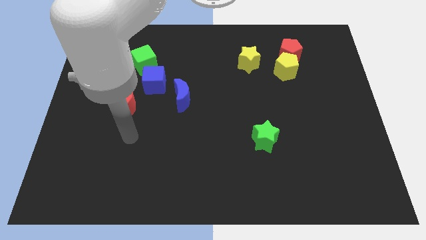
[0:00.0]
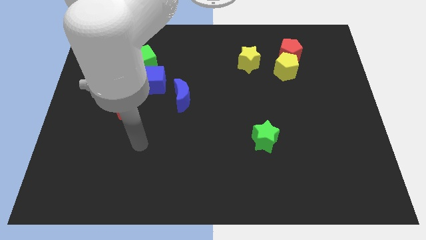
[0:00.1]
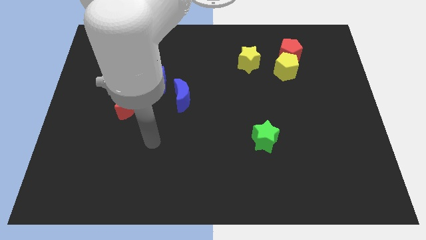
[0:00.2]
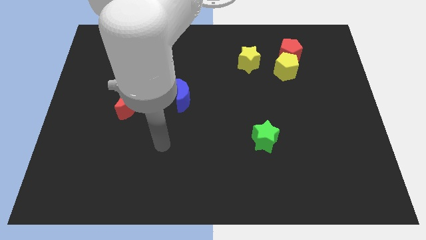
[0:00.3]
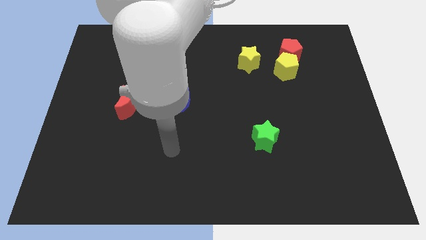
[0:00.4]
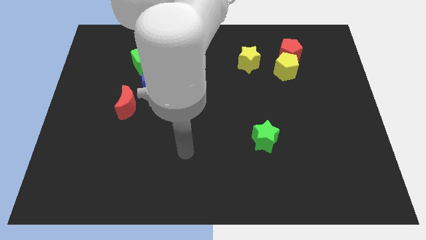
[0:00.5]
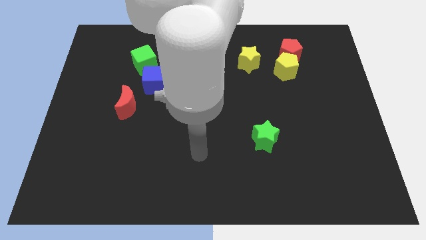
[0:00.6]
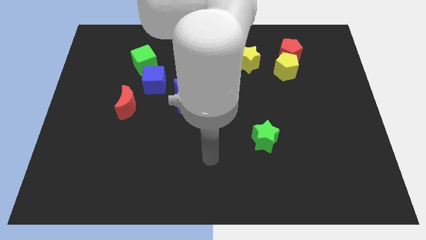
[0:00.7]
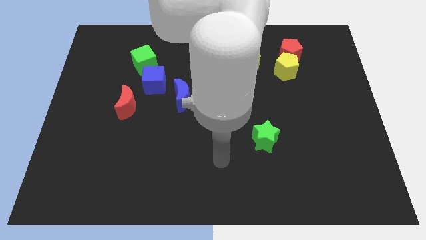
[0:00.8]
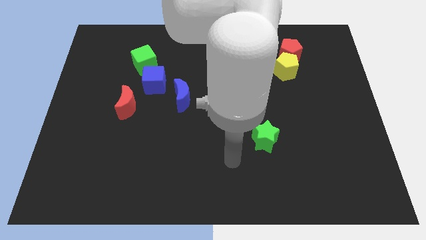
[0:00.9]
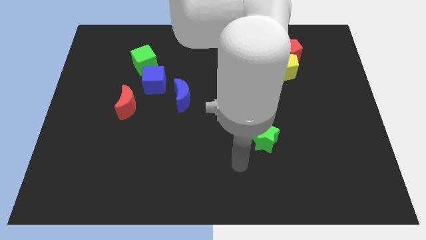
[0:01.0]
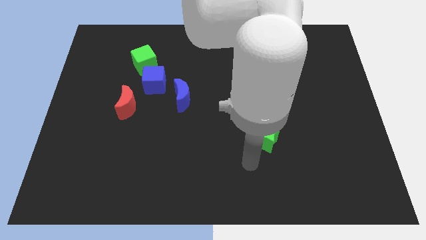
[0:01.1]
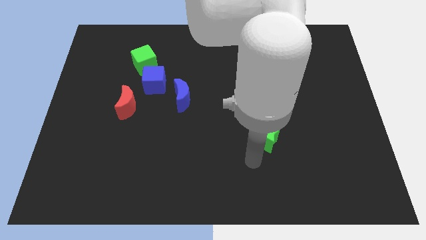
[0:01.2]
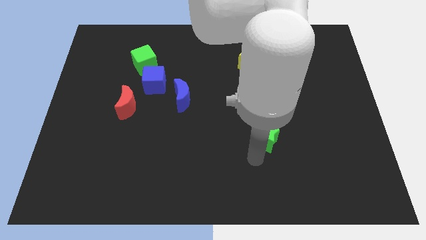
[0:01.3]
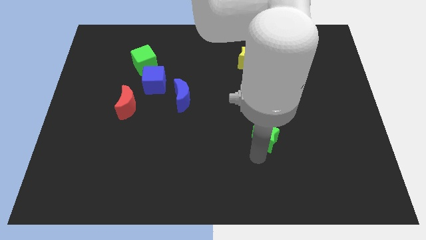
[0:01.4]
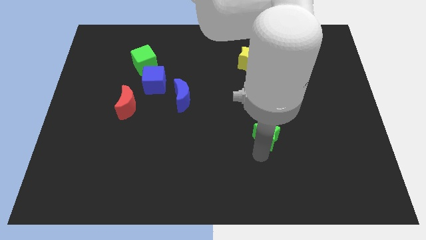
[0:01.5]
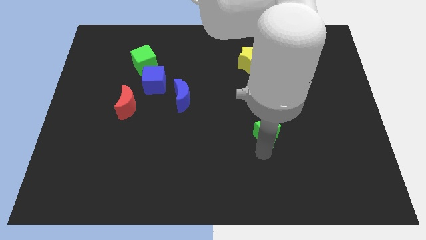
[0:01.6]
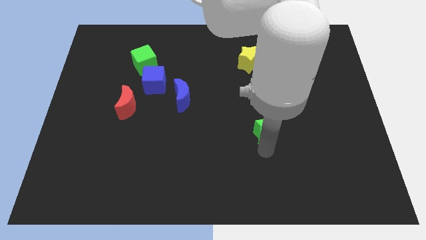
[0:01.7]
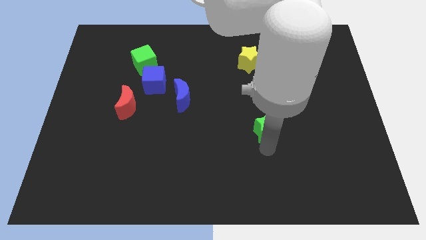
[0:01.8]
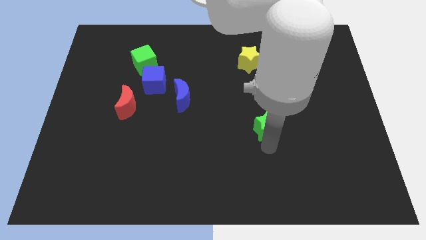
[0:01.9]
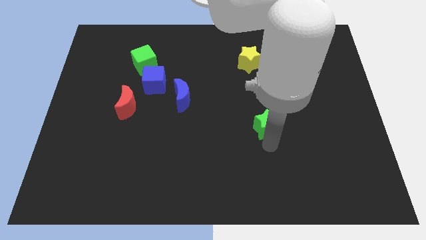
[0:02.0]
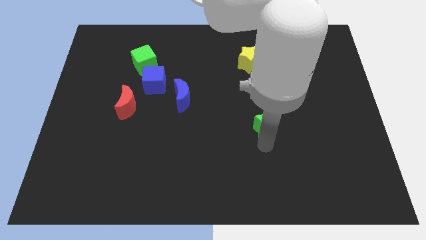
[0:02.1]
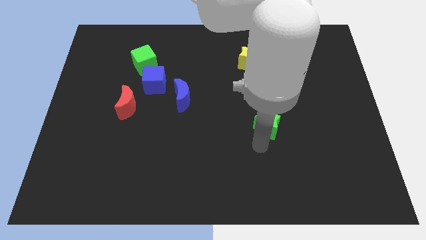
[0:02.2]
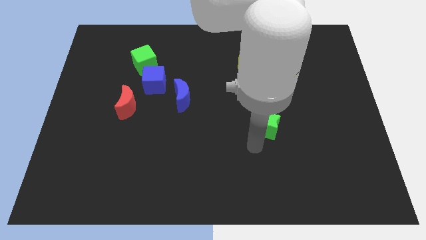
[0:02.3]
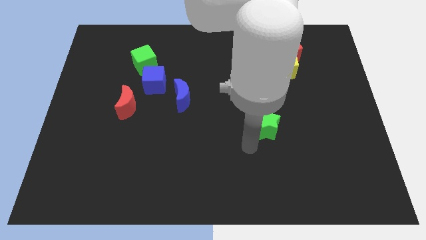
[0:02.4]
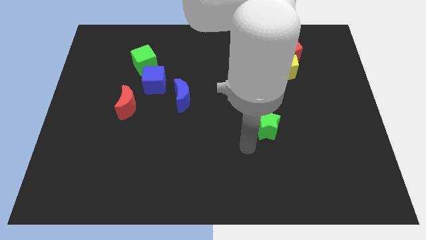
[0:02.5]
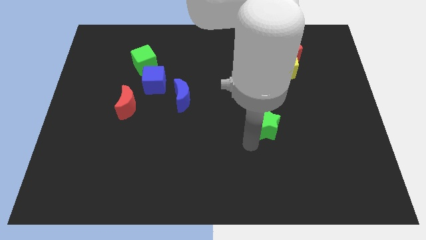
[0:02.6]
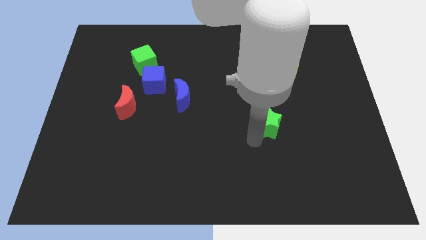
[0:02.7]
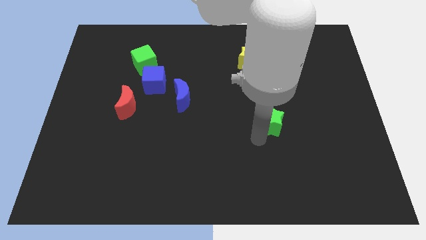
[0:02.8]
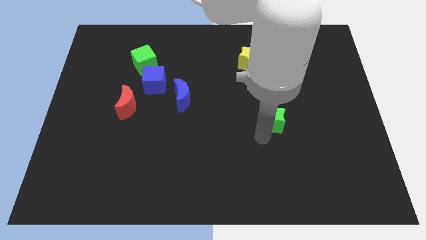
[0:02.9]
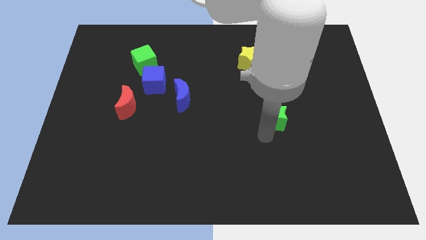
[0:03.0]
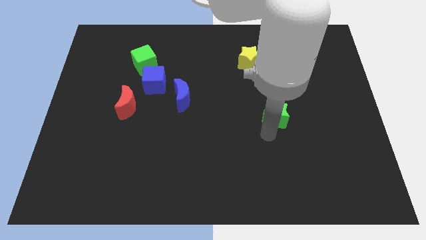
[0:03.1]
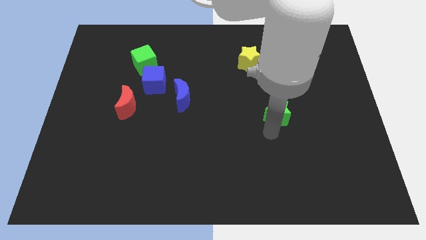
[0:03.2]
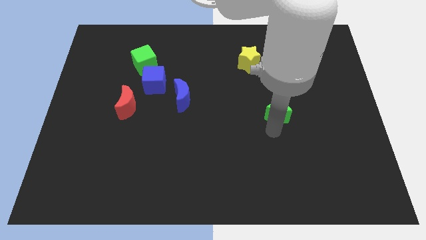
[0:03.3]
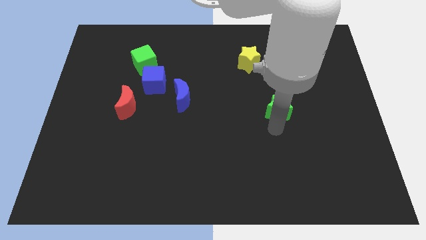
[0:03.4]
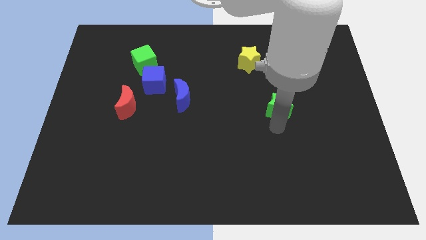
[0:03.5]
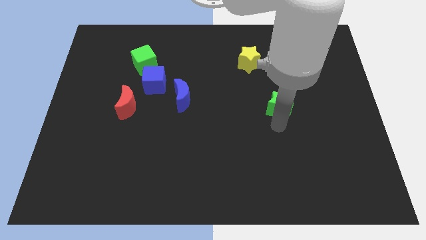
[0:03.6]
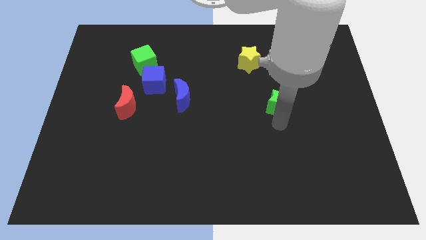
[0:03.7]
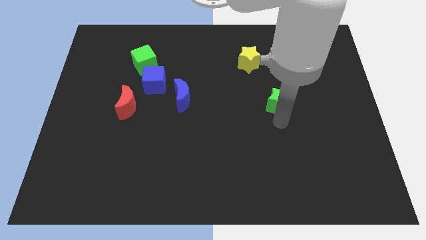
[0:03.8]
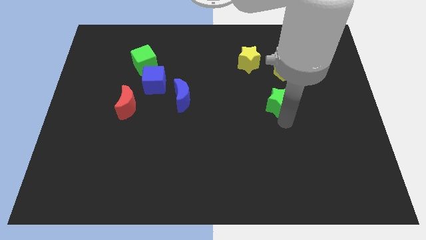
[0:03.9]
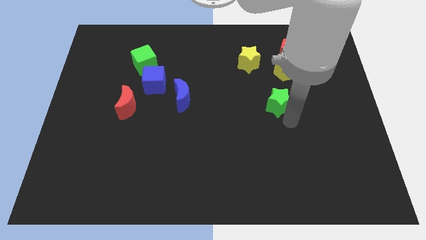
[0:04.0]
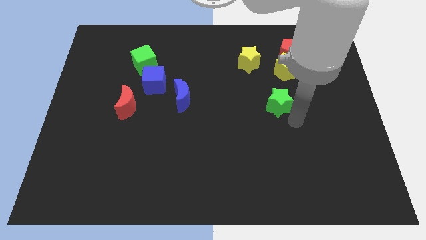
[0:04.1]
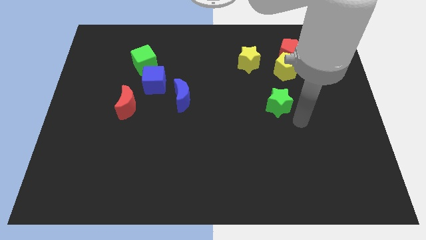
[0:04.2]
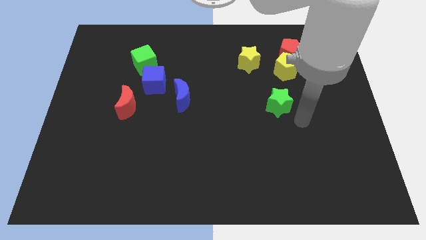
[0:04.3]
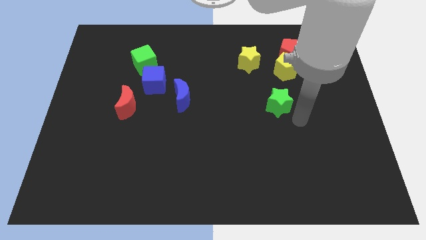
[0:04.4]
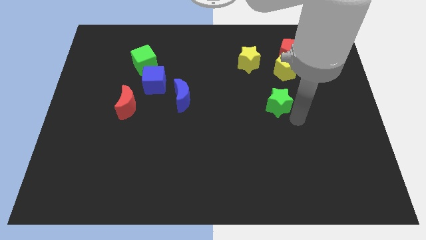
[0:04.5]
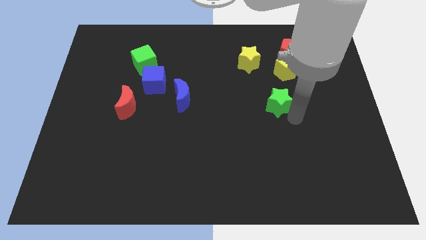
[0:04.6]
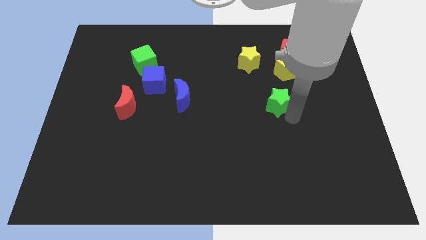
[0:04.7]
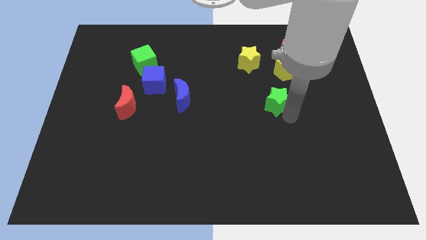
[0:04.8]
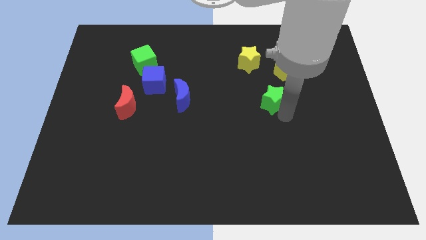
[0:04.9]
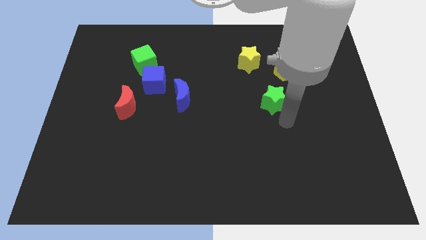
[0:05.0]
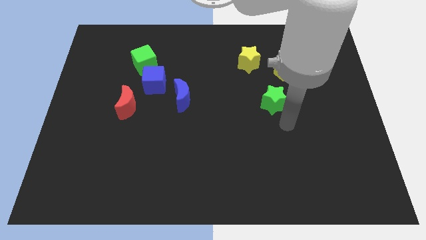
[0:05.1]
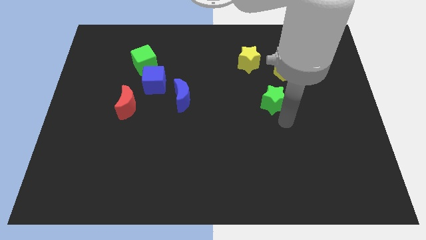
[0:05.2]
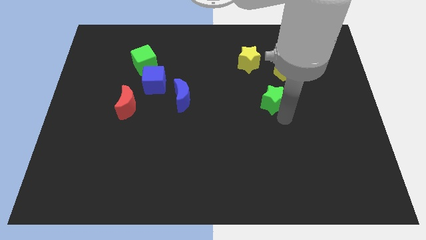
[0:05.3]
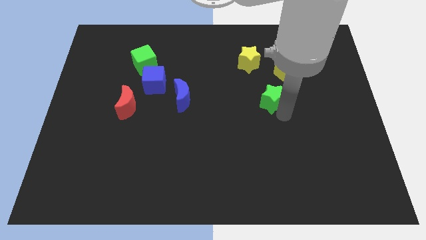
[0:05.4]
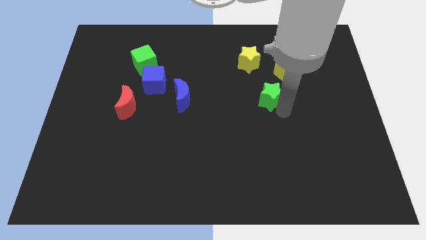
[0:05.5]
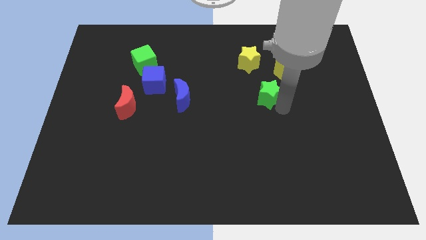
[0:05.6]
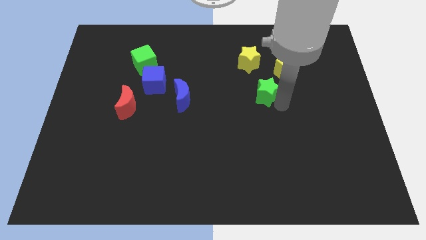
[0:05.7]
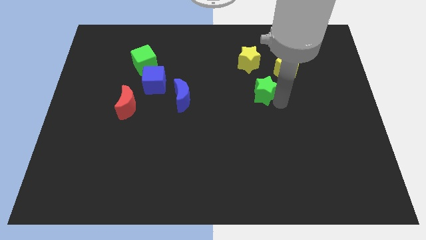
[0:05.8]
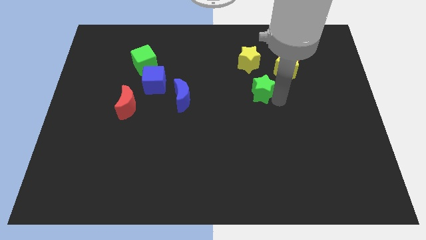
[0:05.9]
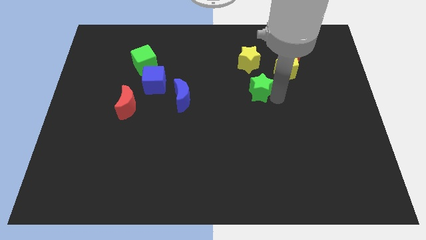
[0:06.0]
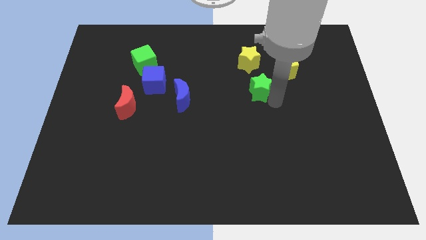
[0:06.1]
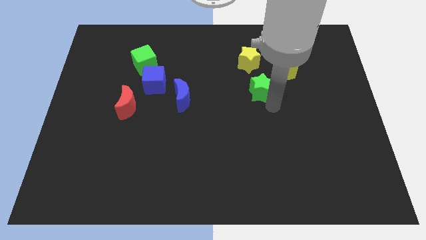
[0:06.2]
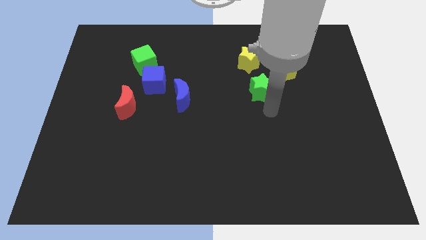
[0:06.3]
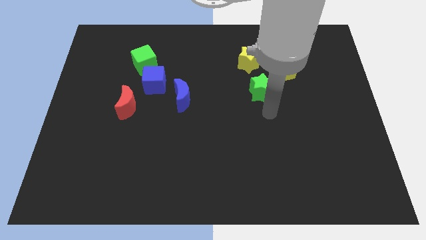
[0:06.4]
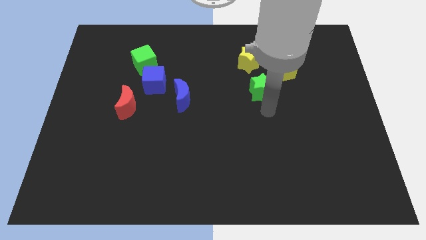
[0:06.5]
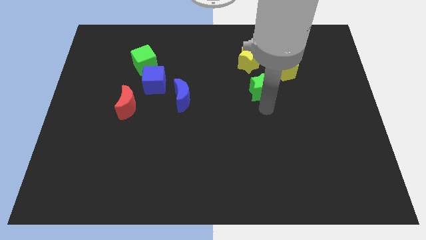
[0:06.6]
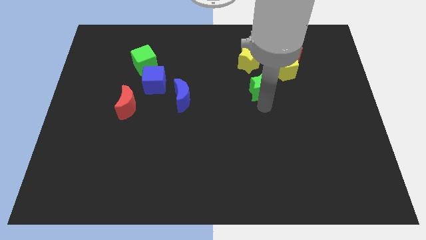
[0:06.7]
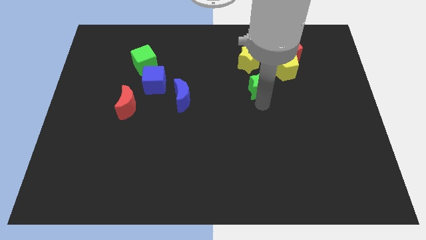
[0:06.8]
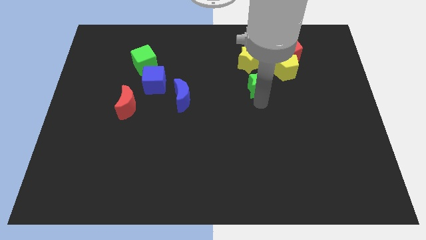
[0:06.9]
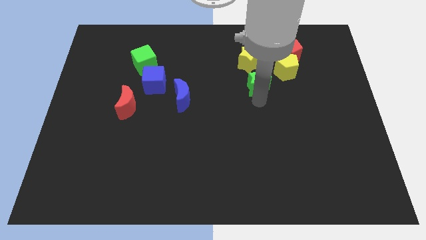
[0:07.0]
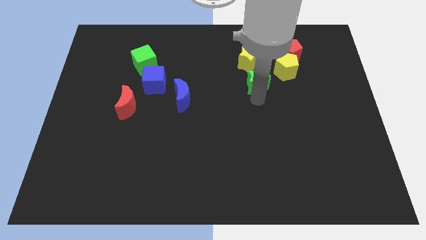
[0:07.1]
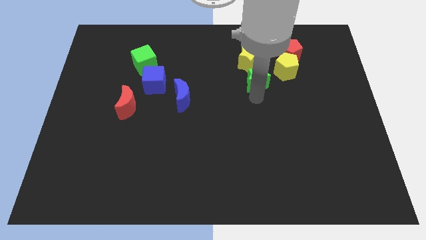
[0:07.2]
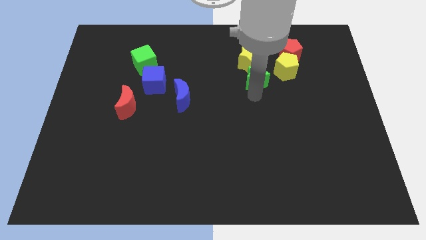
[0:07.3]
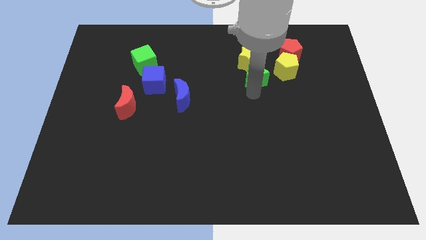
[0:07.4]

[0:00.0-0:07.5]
slide the green star towards the yellow star
